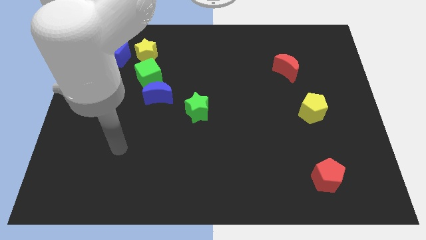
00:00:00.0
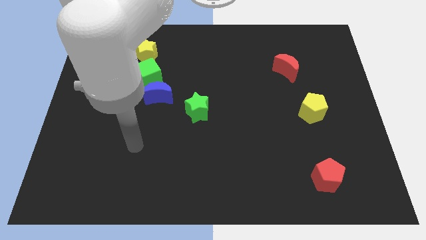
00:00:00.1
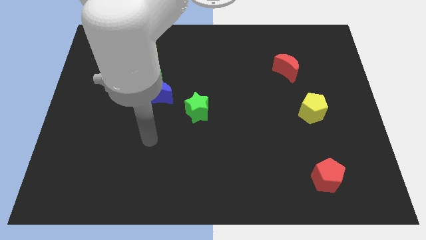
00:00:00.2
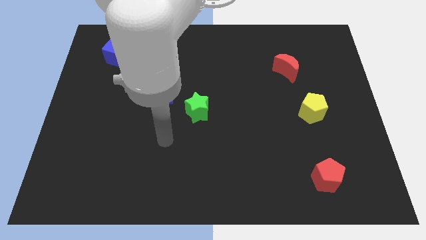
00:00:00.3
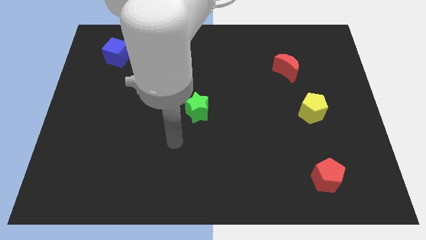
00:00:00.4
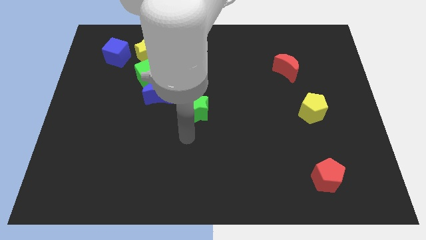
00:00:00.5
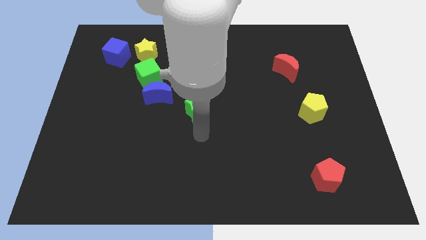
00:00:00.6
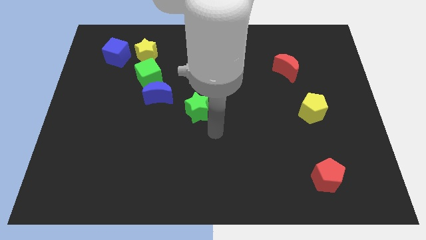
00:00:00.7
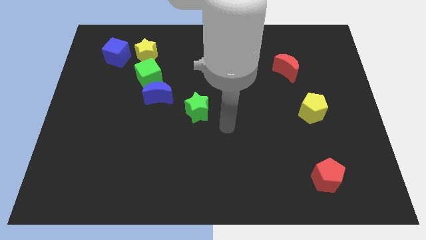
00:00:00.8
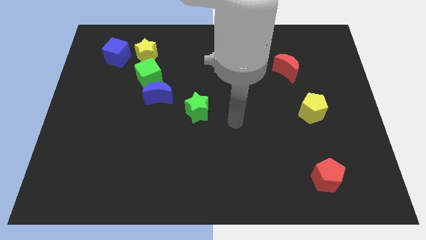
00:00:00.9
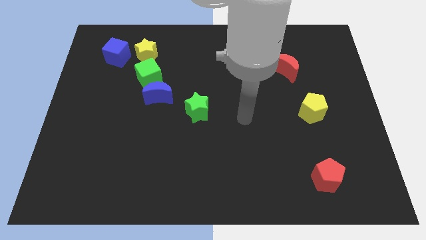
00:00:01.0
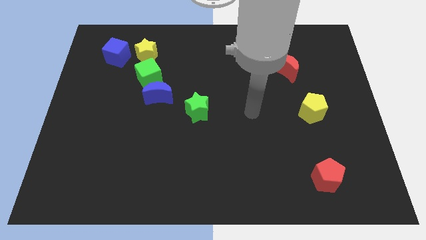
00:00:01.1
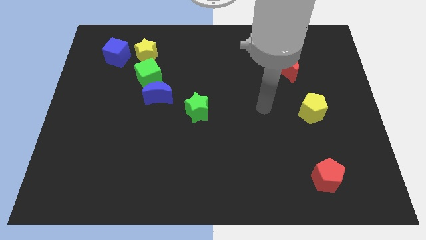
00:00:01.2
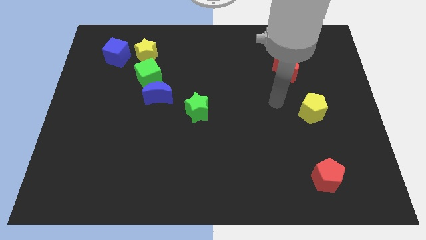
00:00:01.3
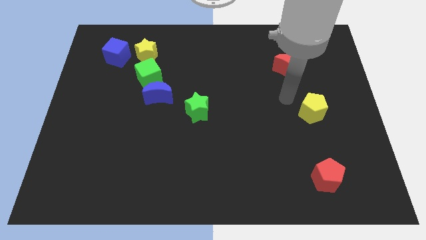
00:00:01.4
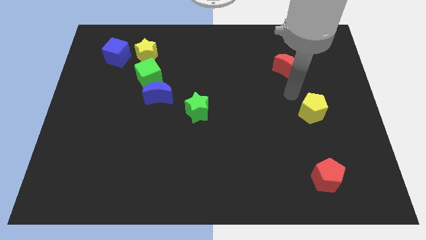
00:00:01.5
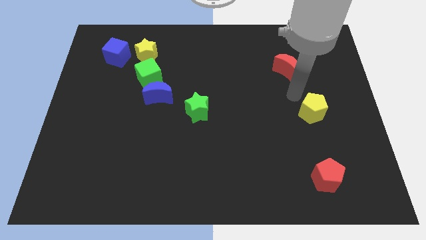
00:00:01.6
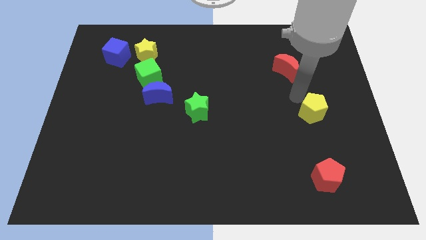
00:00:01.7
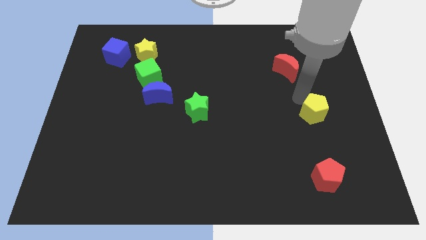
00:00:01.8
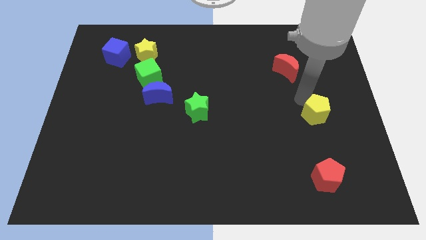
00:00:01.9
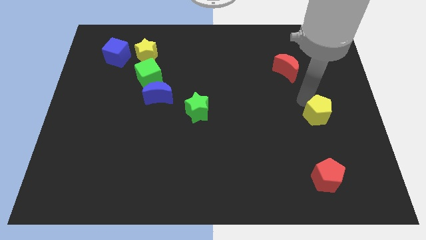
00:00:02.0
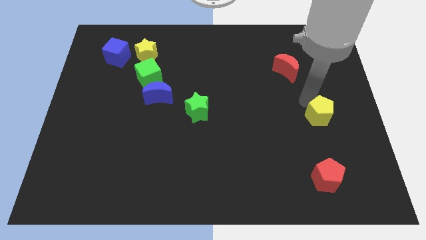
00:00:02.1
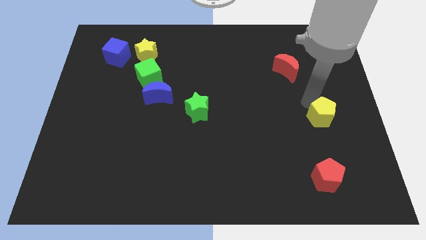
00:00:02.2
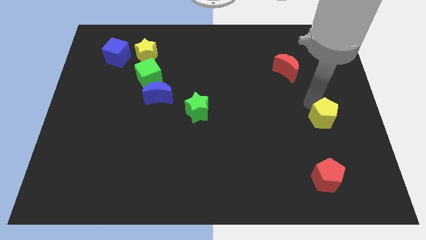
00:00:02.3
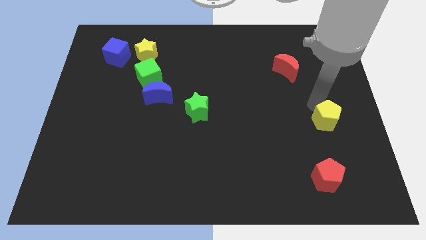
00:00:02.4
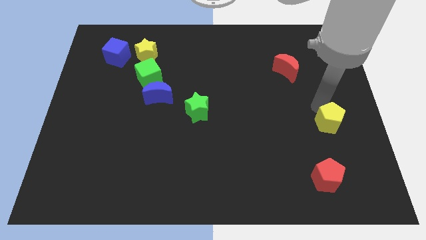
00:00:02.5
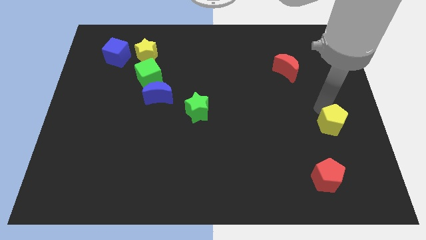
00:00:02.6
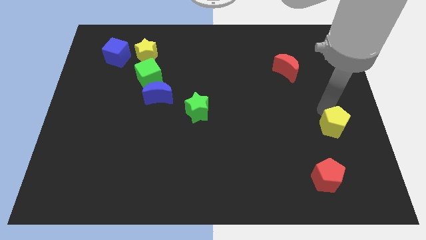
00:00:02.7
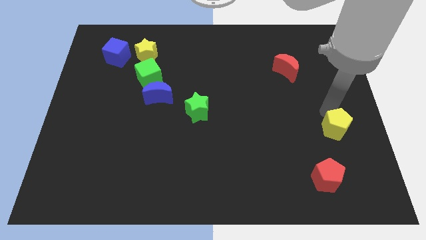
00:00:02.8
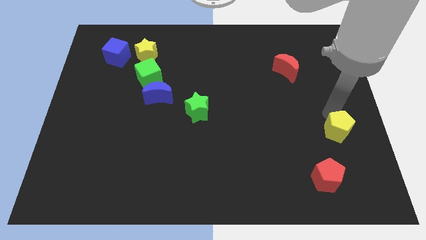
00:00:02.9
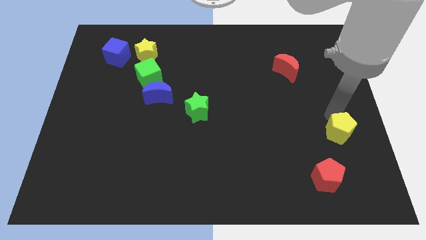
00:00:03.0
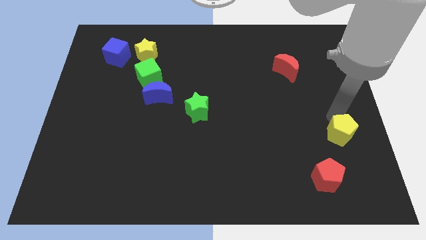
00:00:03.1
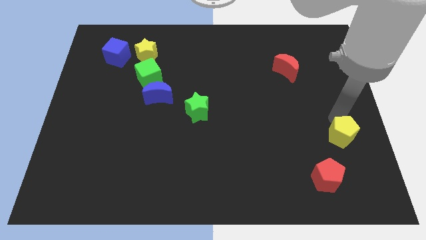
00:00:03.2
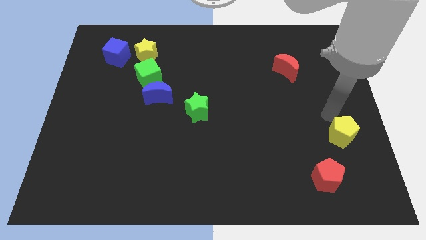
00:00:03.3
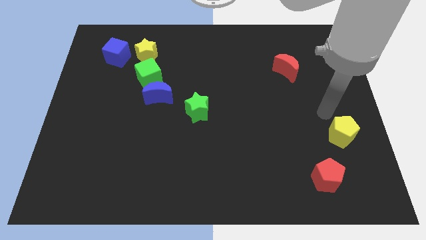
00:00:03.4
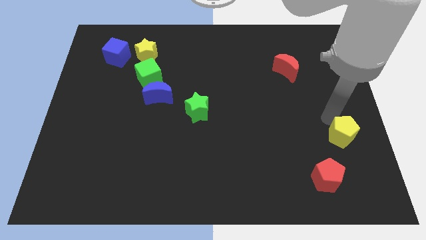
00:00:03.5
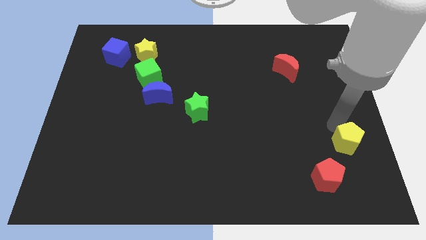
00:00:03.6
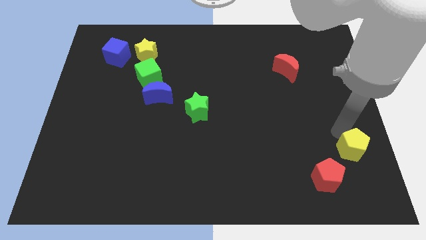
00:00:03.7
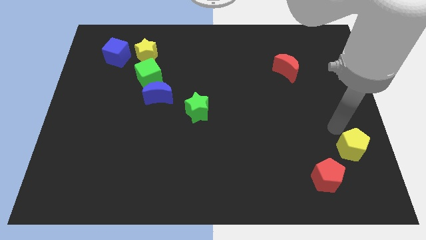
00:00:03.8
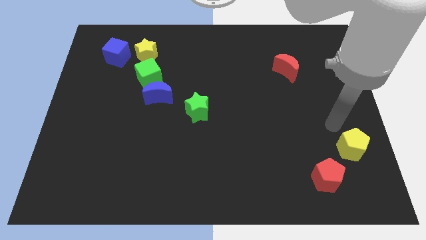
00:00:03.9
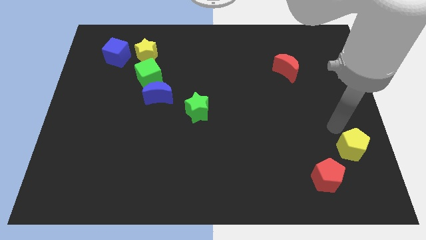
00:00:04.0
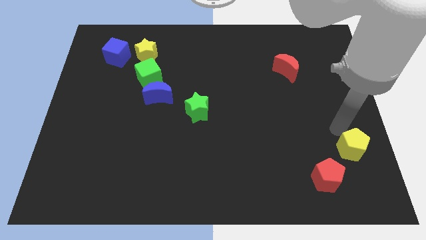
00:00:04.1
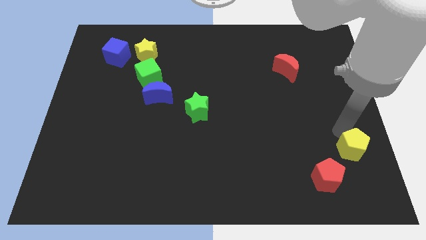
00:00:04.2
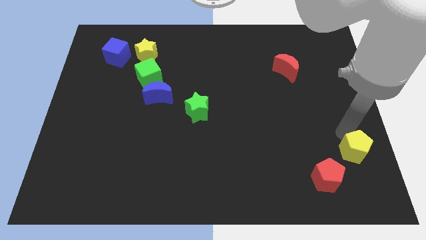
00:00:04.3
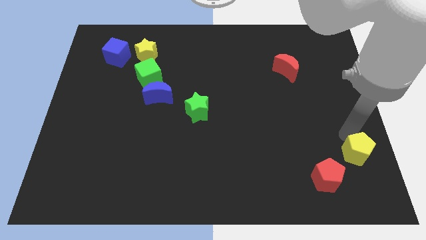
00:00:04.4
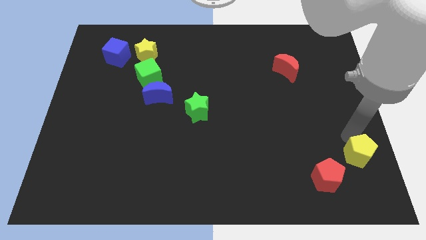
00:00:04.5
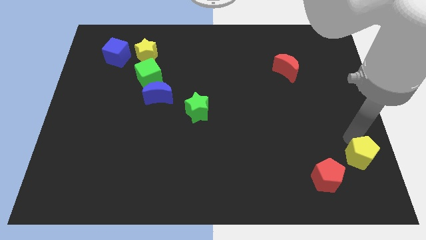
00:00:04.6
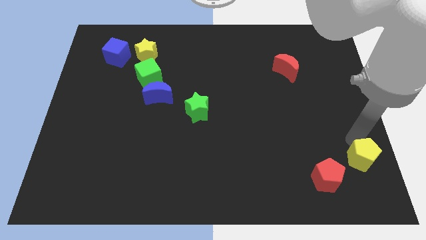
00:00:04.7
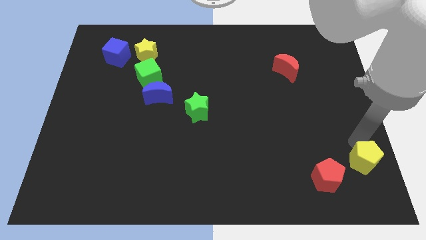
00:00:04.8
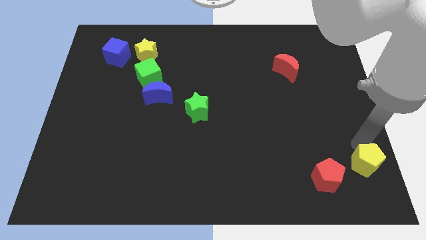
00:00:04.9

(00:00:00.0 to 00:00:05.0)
move the yellow pentagon to the bottom right

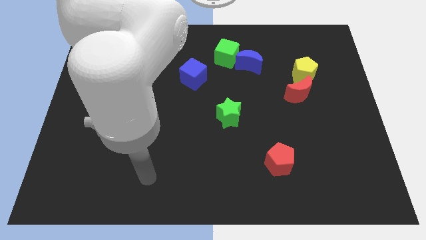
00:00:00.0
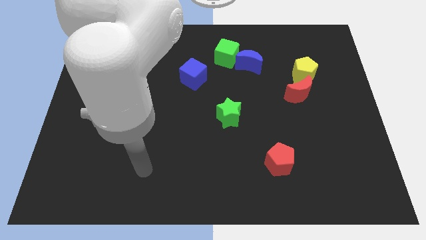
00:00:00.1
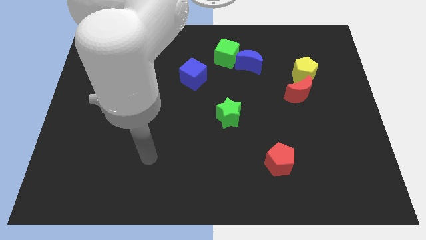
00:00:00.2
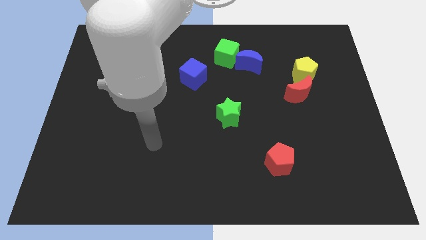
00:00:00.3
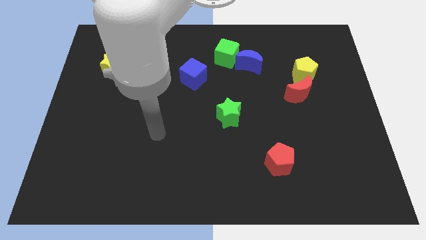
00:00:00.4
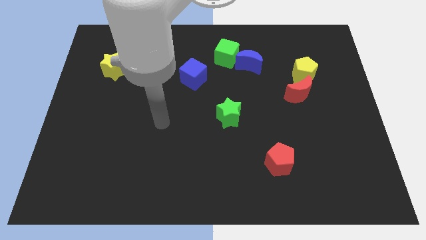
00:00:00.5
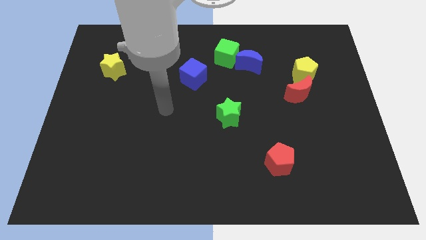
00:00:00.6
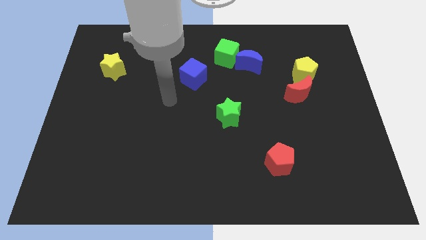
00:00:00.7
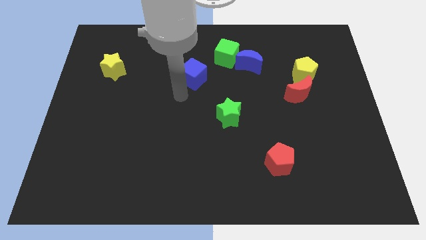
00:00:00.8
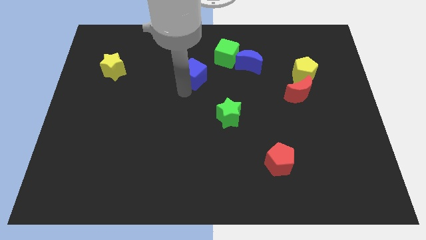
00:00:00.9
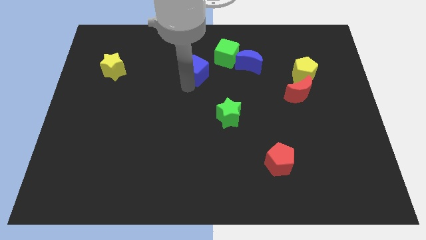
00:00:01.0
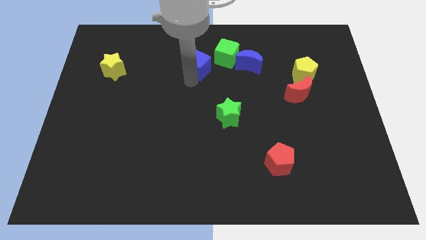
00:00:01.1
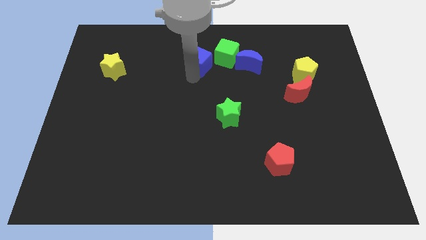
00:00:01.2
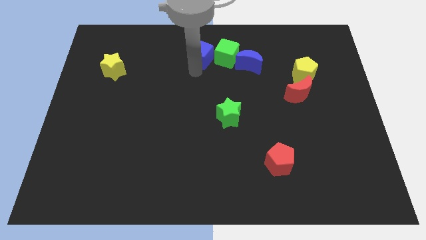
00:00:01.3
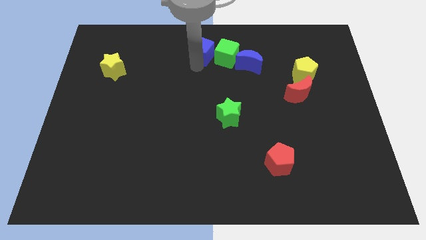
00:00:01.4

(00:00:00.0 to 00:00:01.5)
push the blue cube to the top side

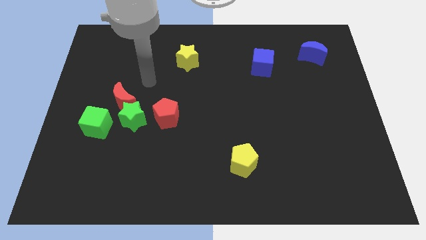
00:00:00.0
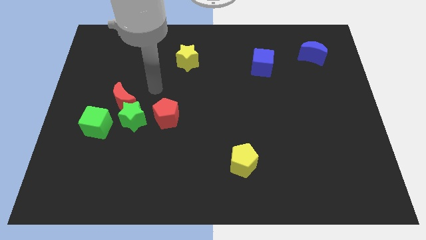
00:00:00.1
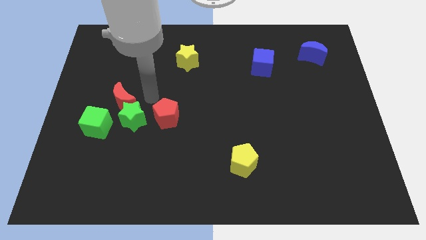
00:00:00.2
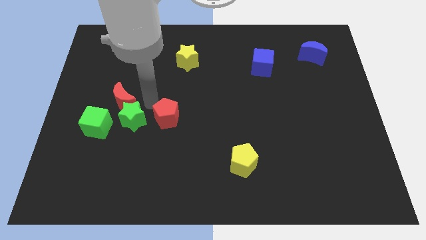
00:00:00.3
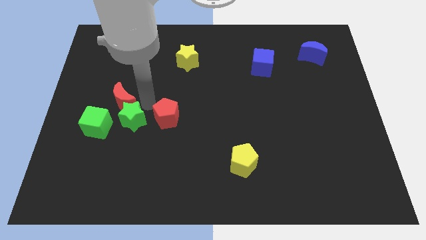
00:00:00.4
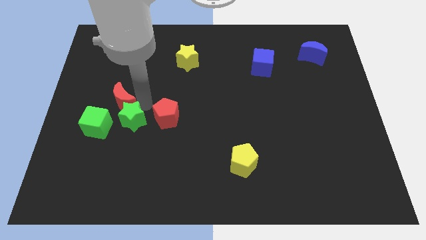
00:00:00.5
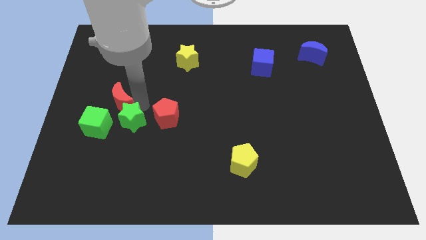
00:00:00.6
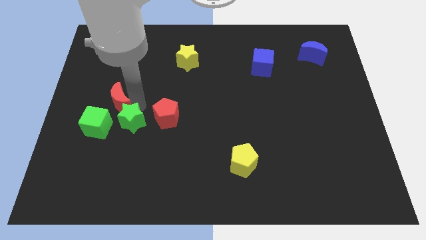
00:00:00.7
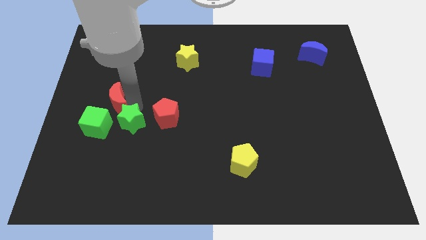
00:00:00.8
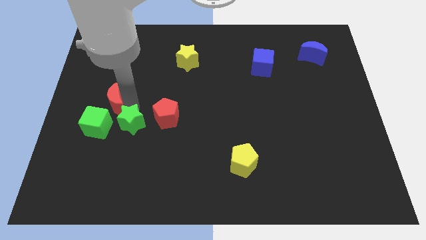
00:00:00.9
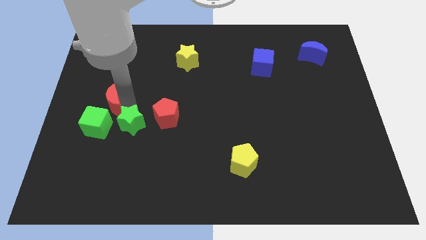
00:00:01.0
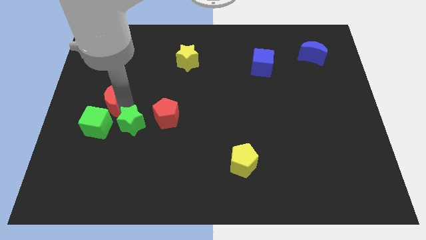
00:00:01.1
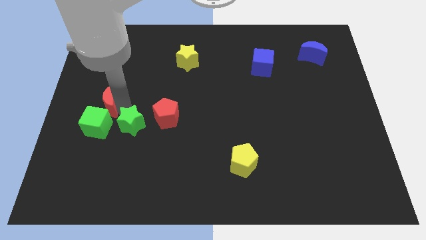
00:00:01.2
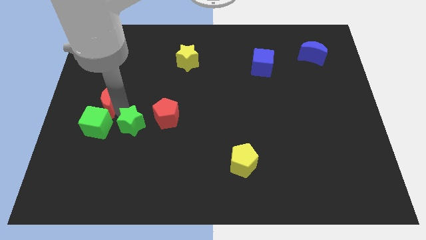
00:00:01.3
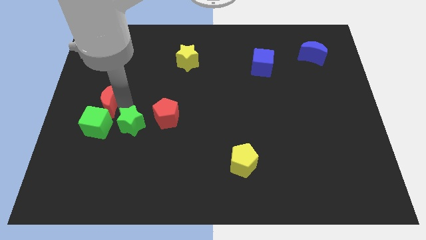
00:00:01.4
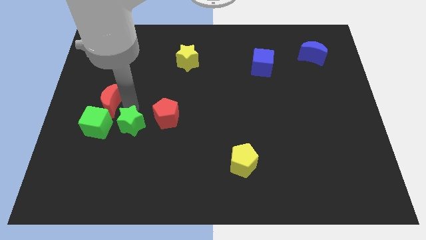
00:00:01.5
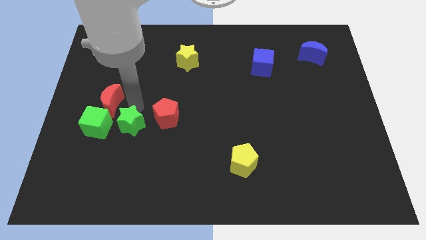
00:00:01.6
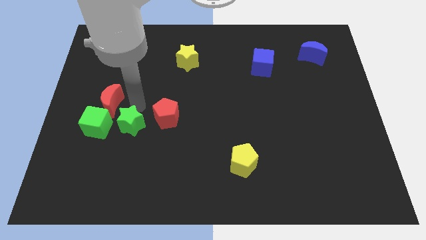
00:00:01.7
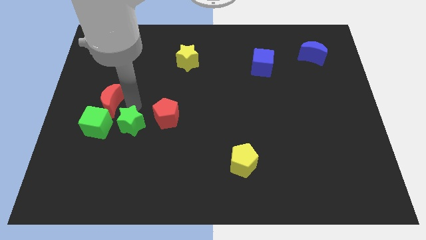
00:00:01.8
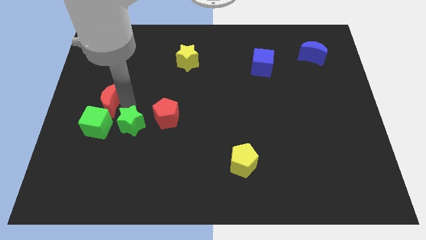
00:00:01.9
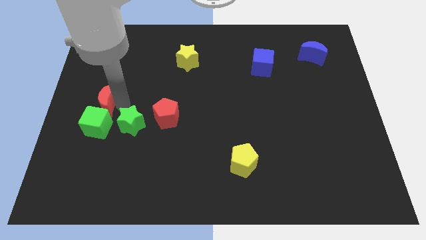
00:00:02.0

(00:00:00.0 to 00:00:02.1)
move the red moon to the center left
